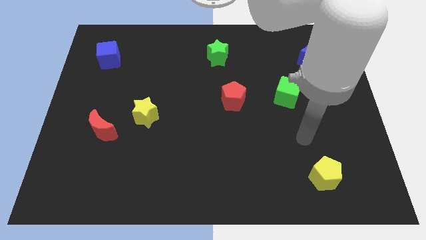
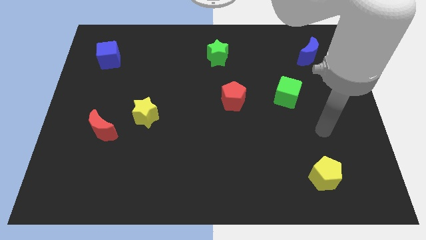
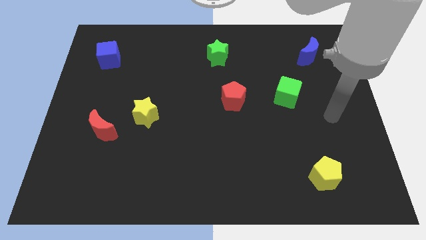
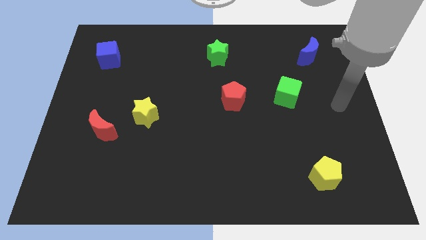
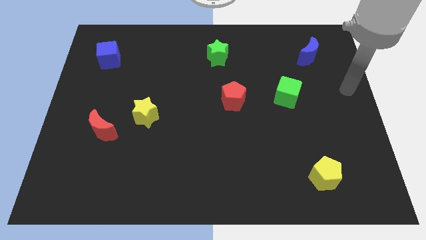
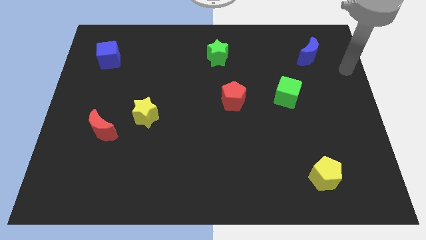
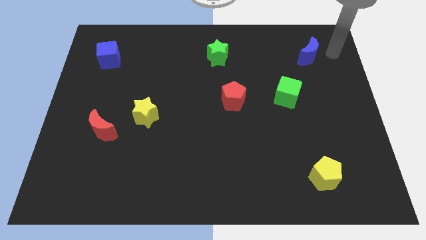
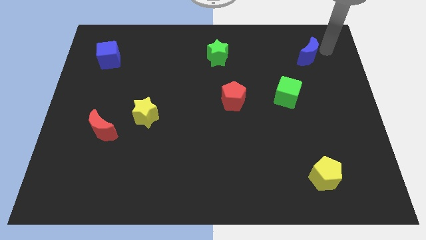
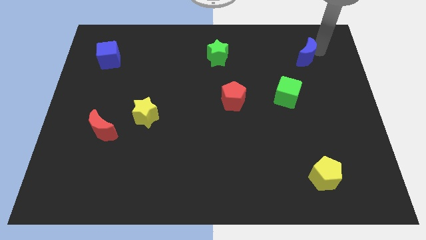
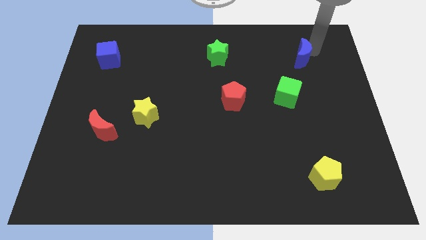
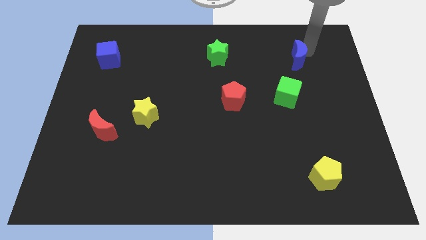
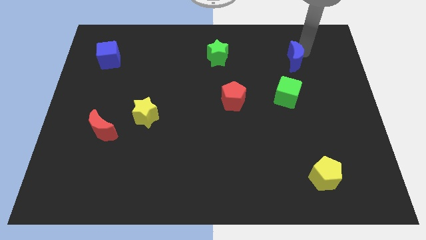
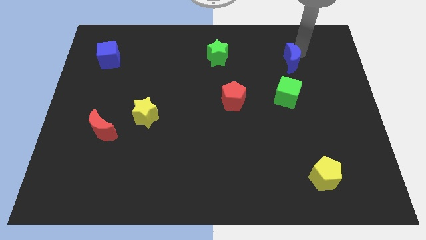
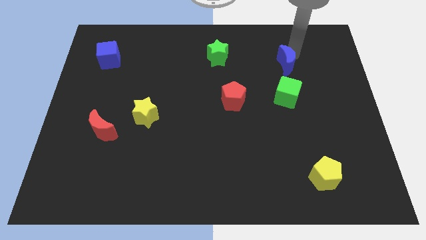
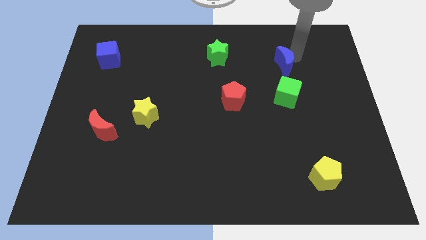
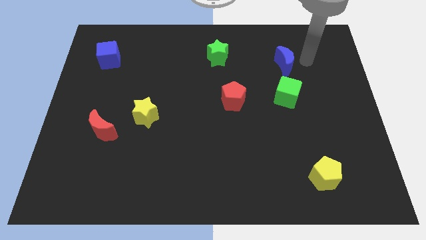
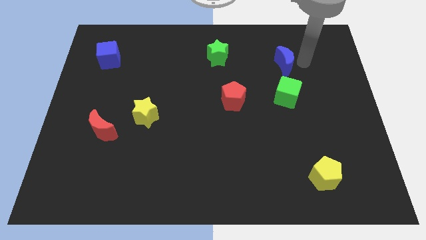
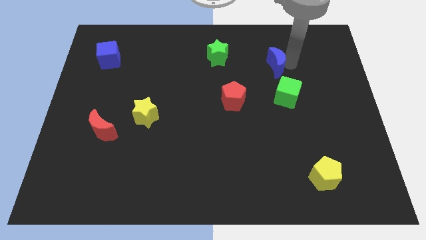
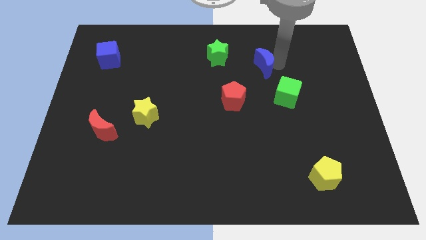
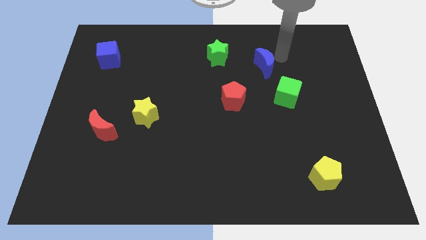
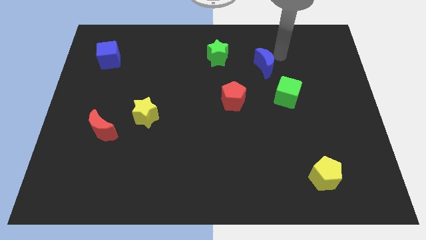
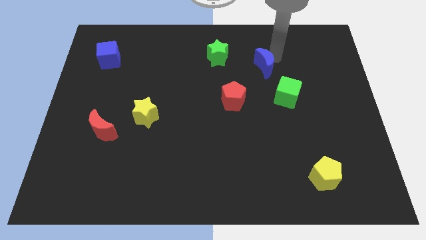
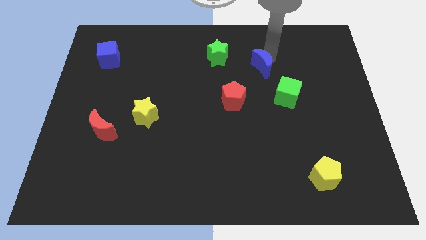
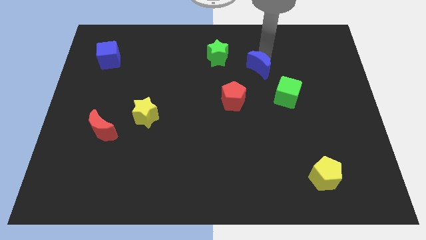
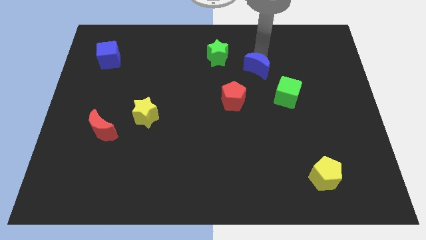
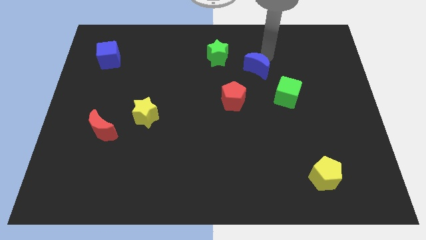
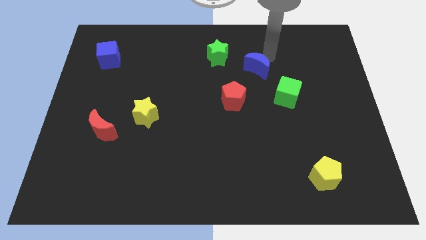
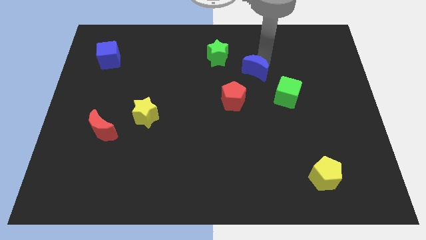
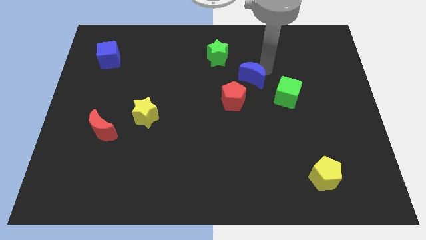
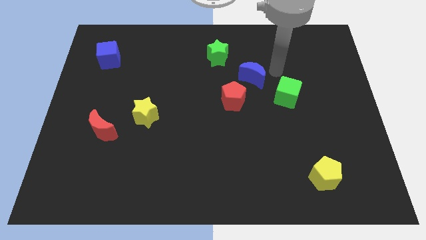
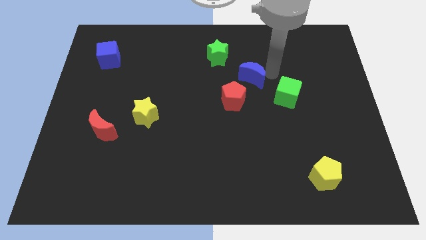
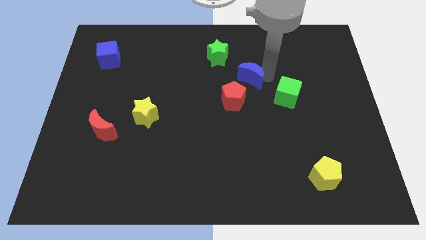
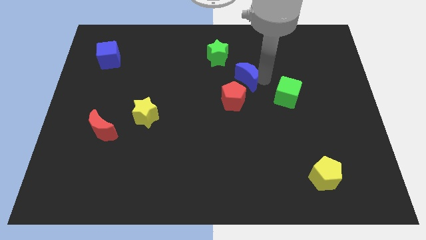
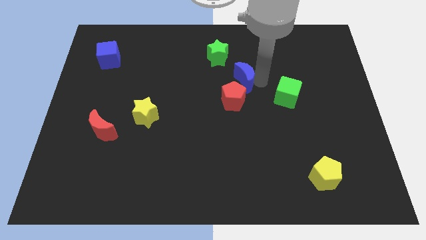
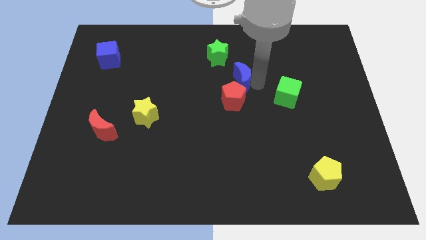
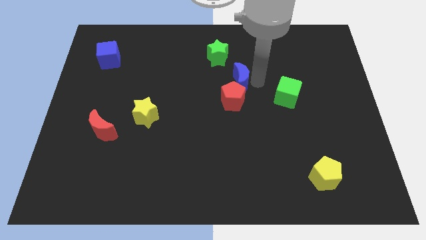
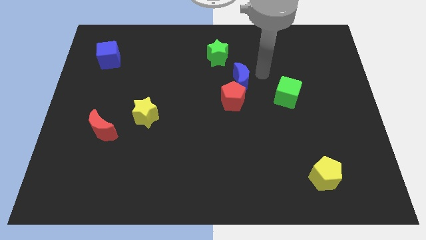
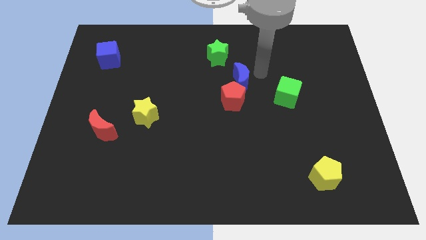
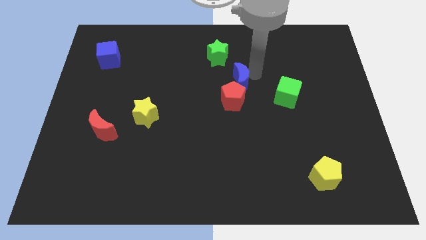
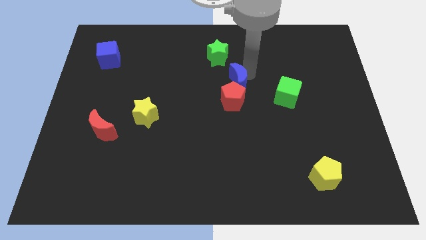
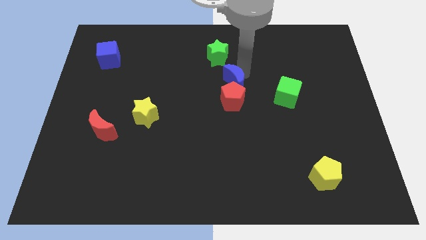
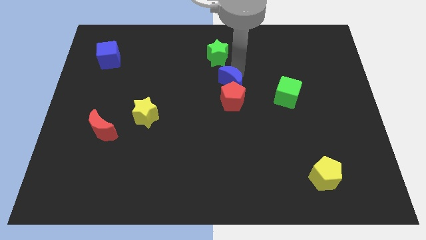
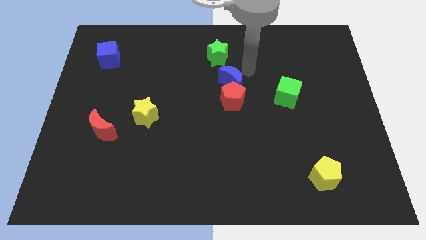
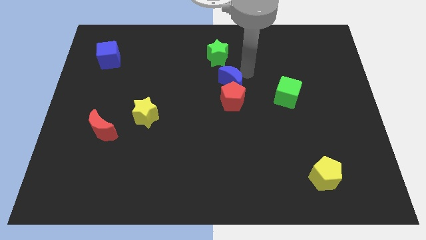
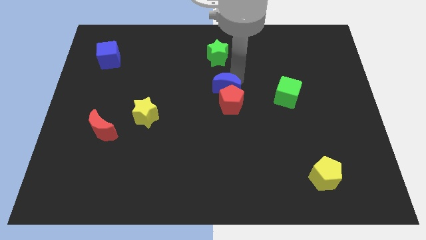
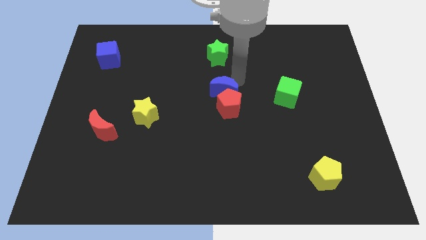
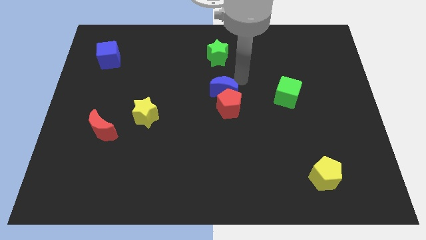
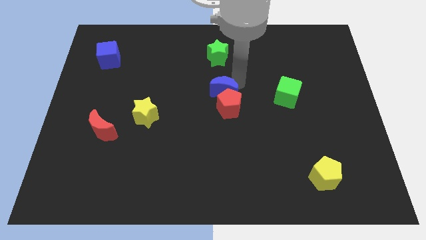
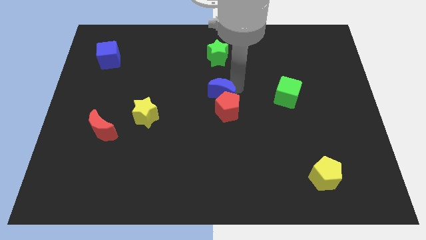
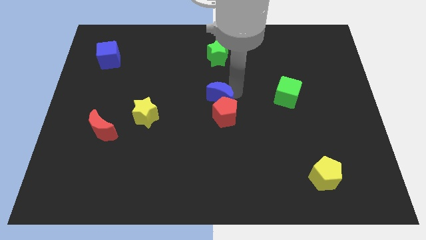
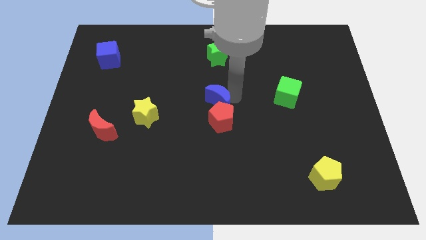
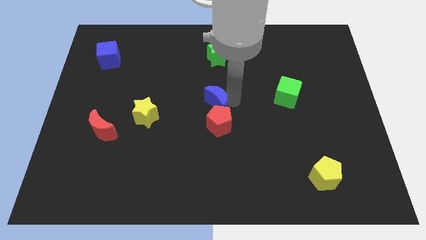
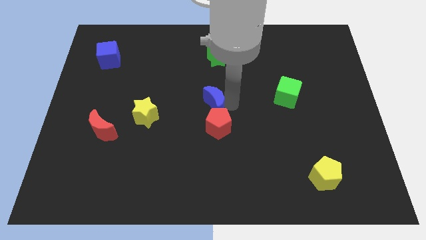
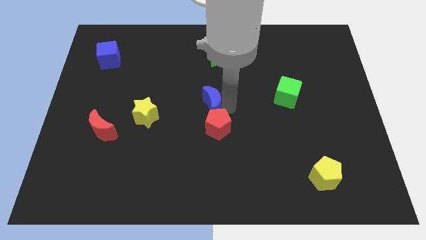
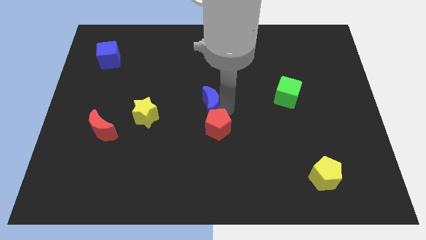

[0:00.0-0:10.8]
put the blue moon just right of the yellow star

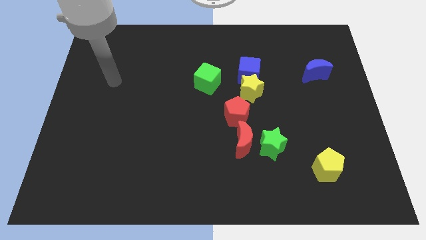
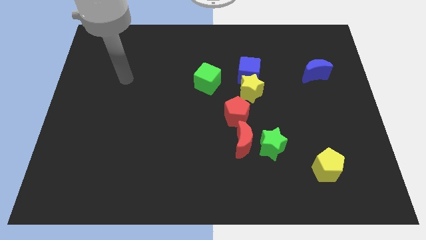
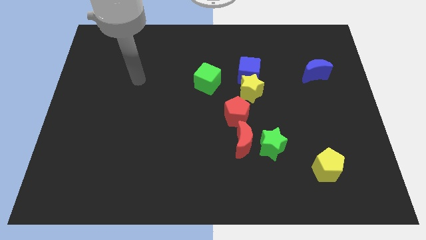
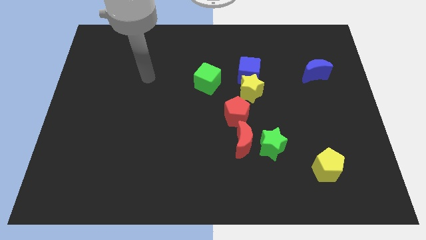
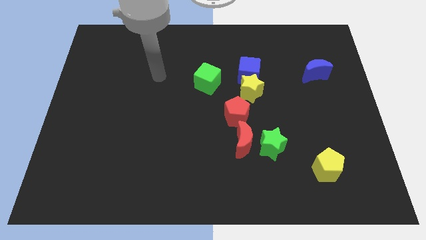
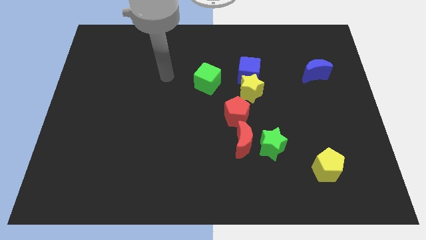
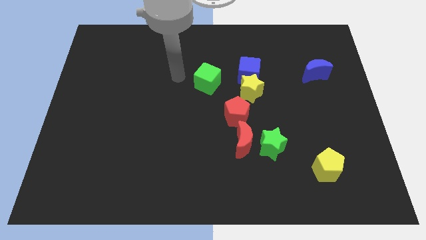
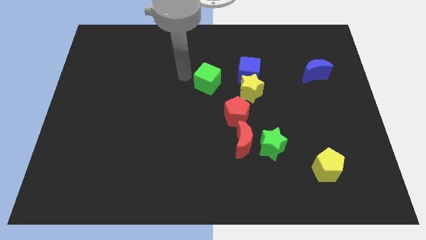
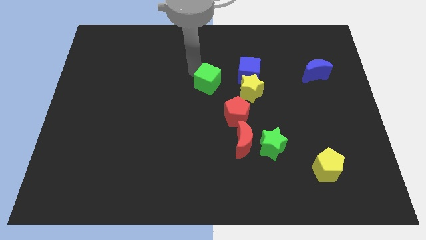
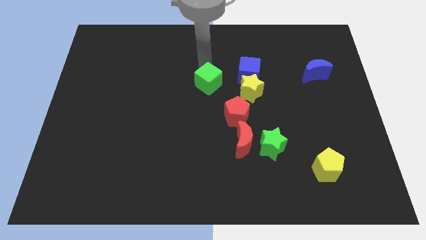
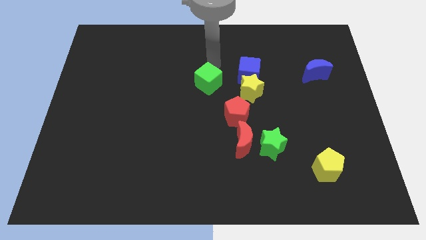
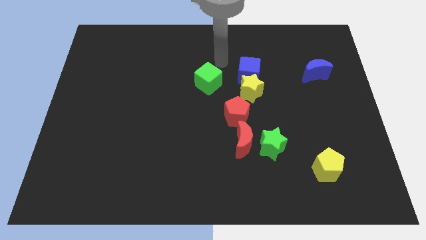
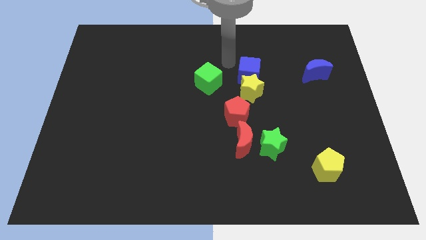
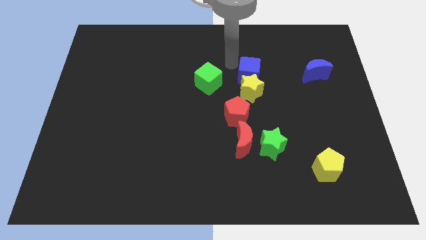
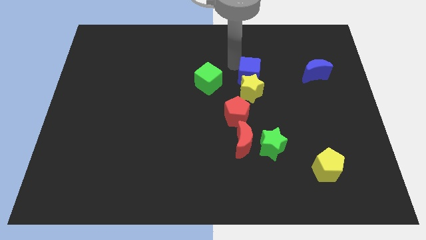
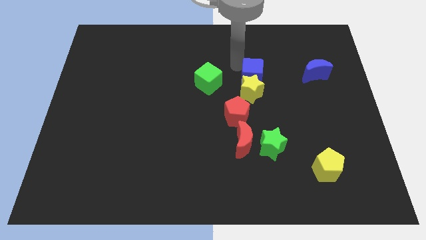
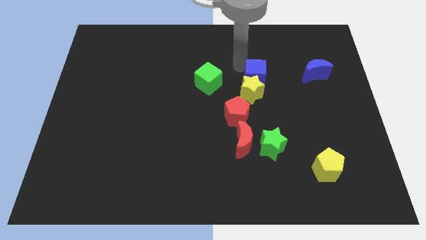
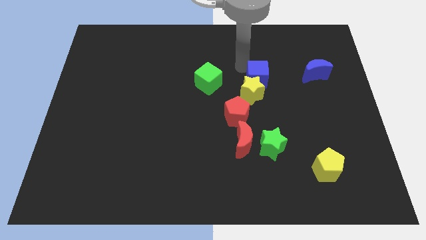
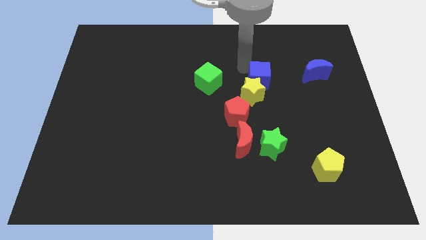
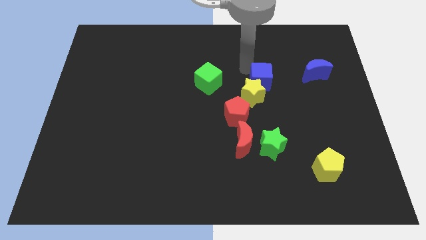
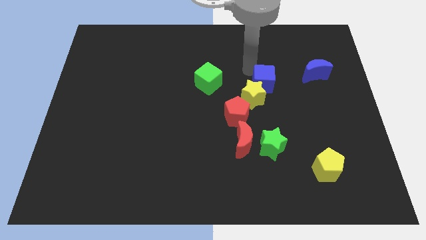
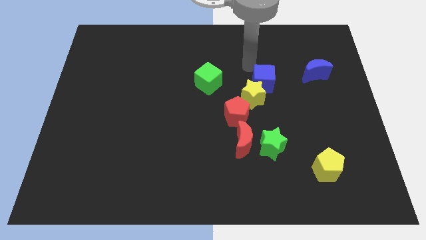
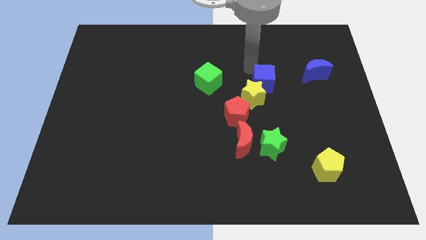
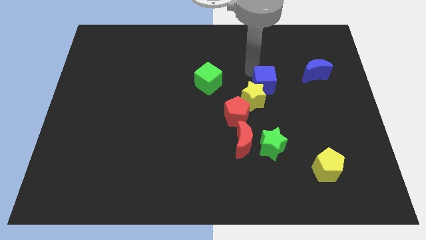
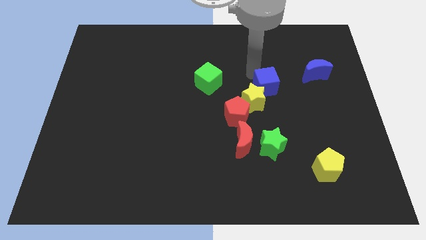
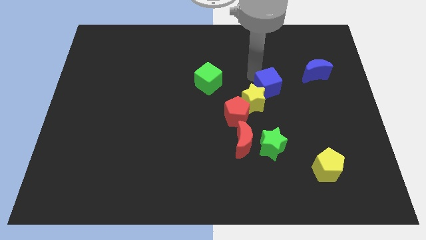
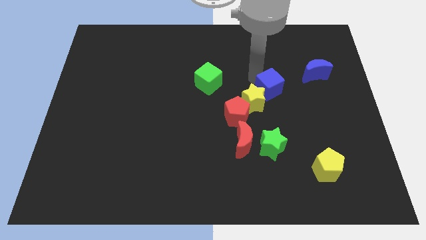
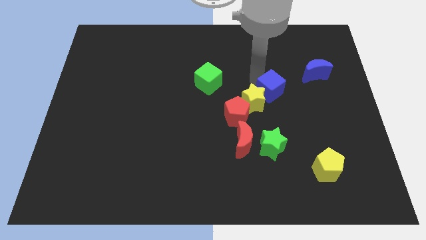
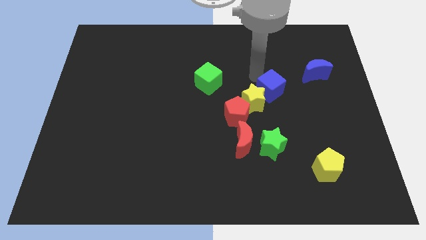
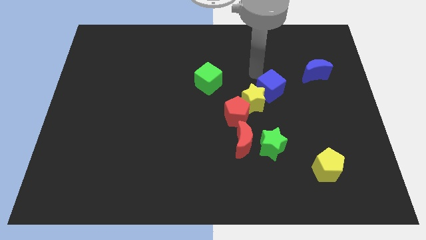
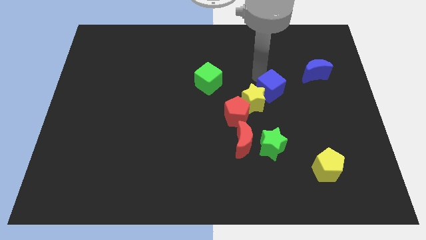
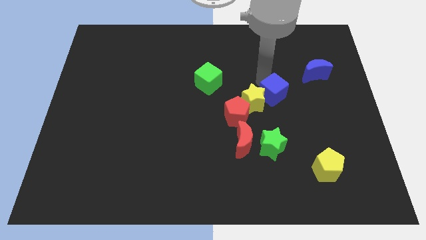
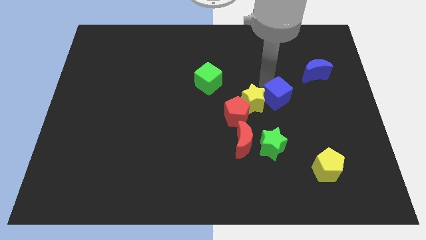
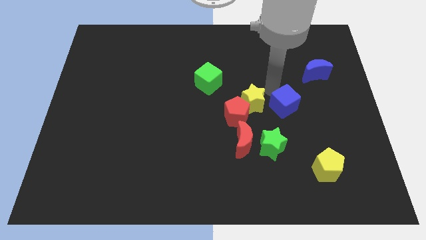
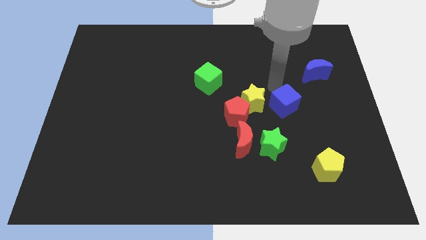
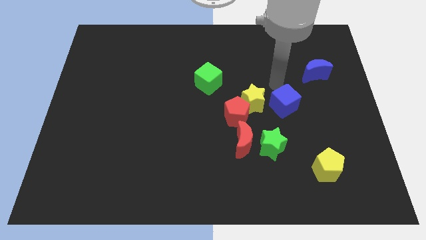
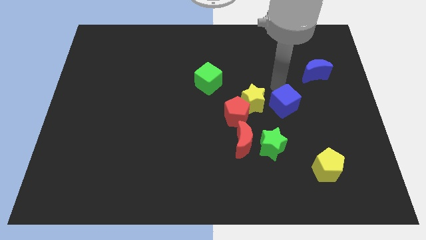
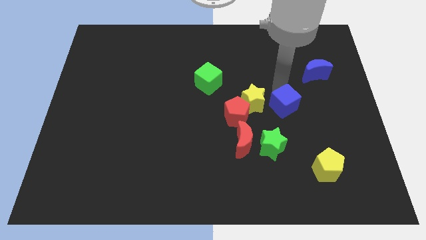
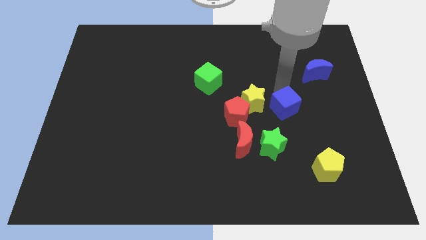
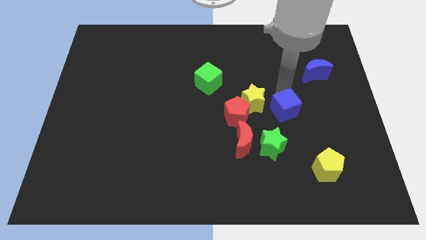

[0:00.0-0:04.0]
move the blue cube to the top right side of the green star
